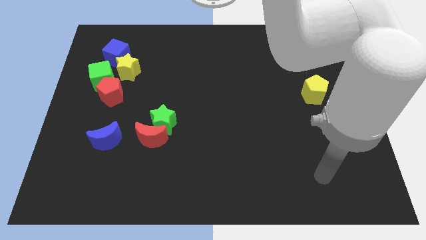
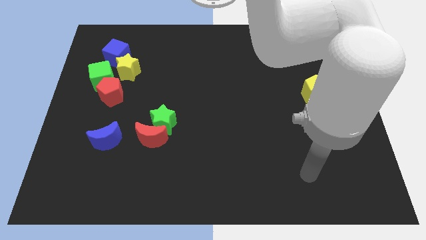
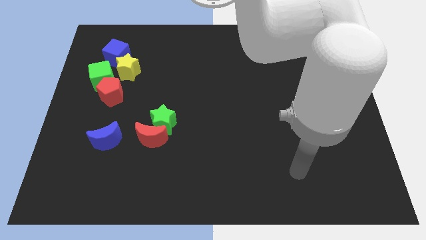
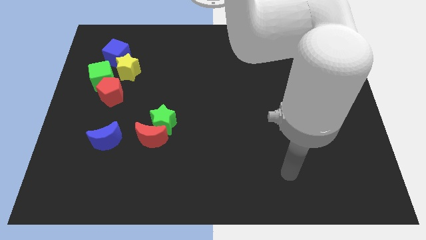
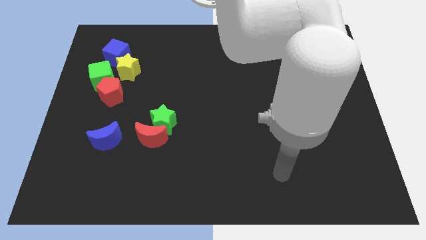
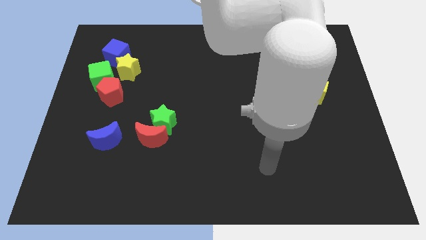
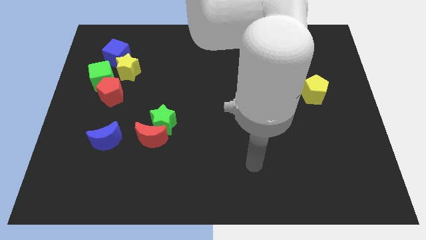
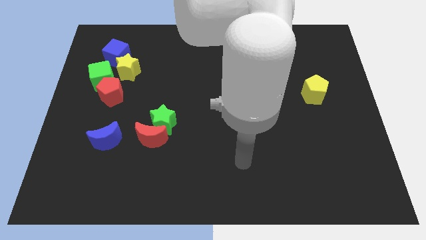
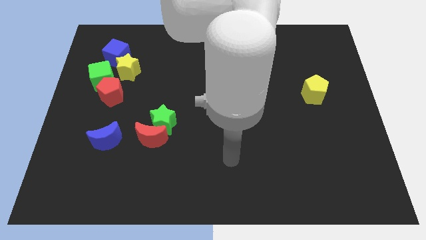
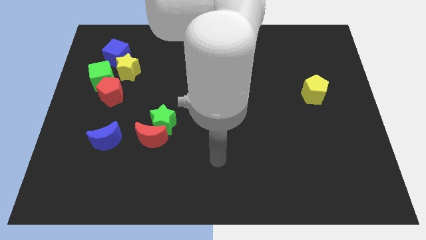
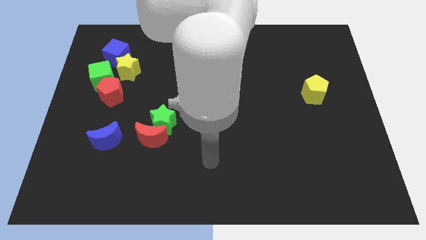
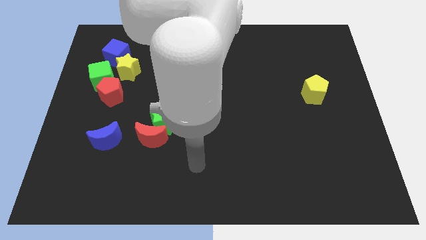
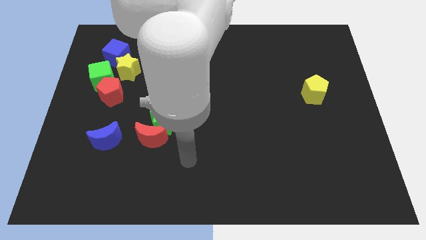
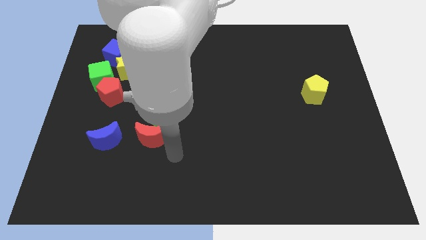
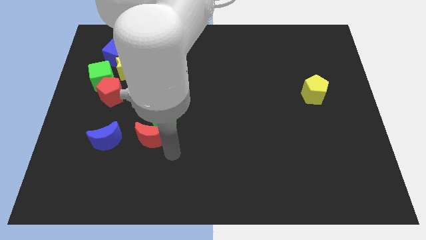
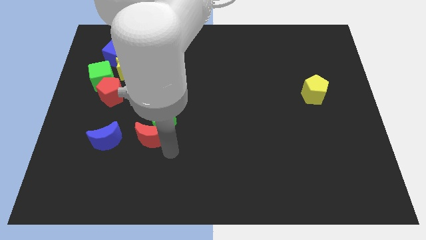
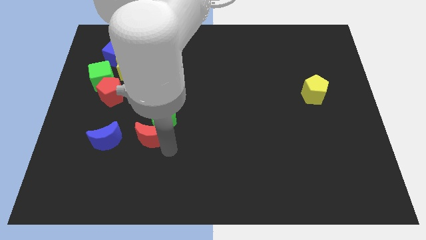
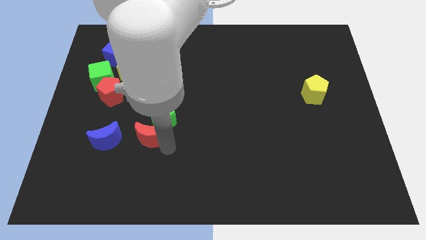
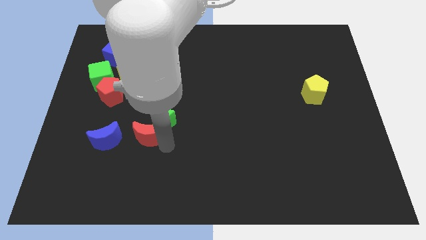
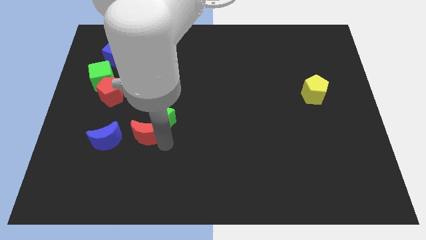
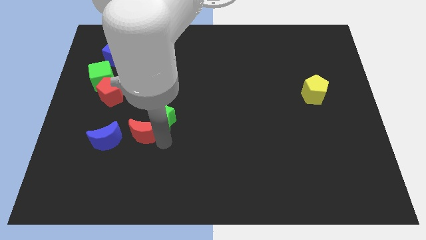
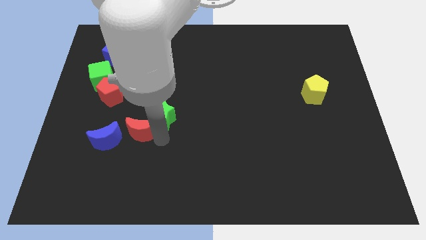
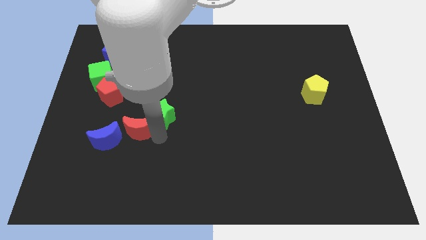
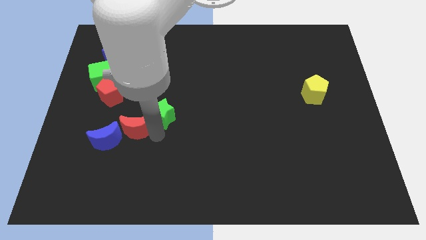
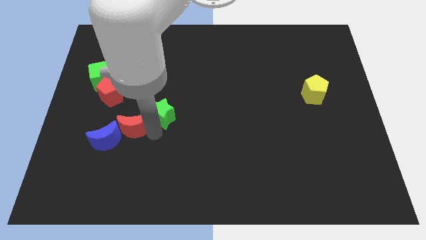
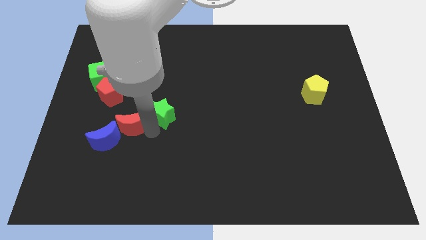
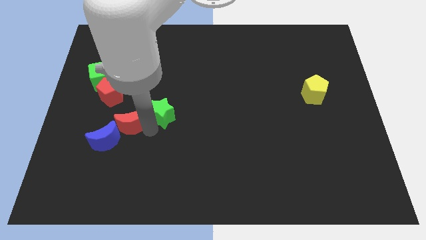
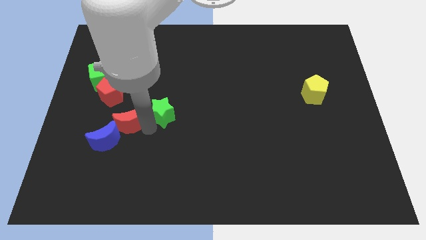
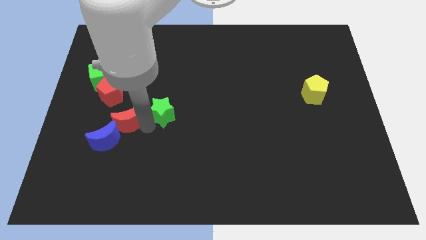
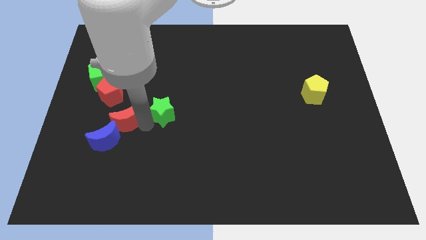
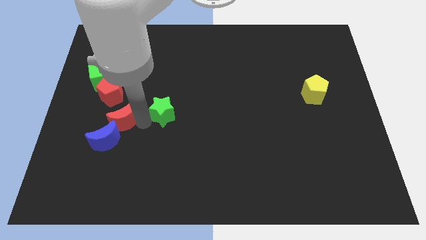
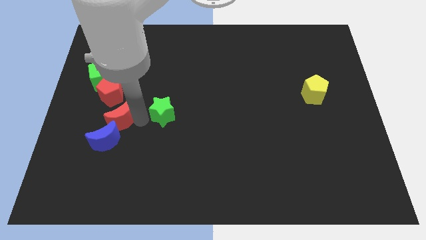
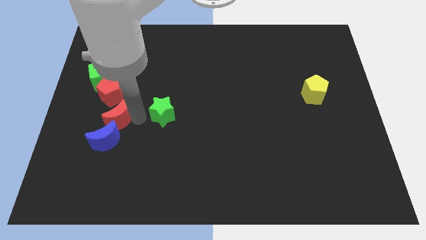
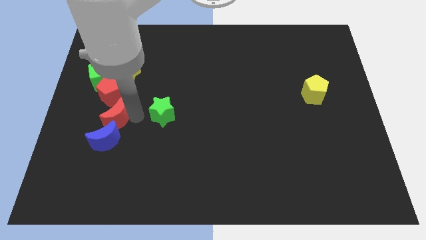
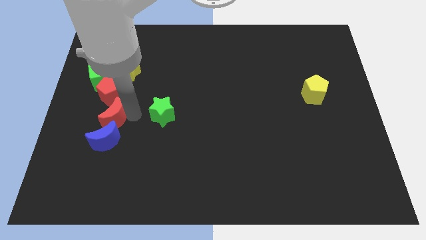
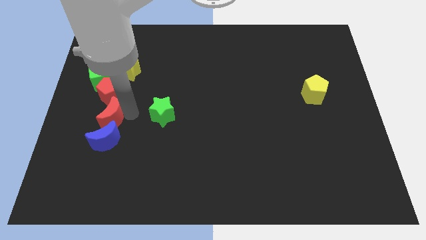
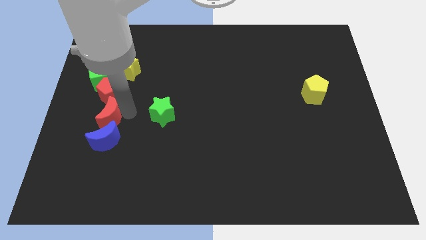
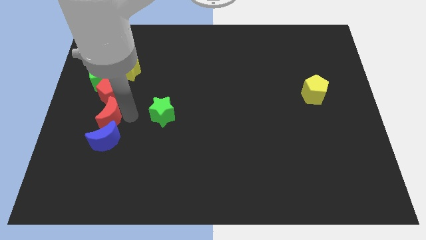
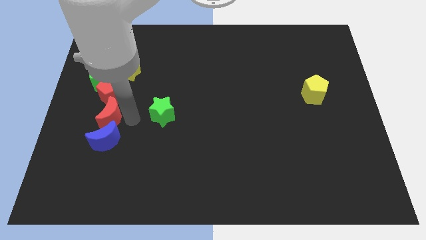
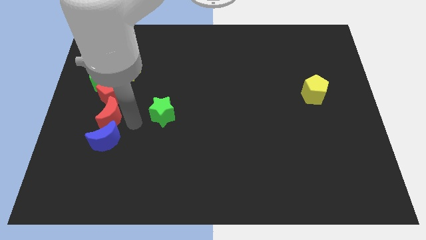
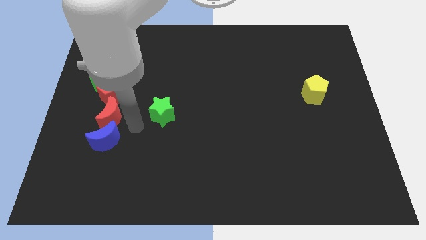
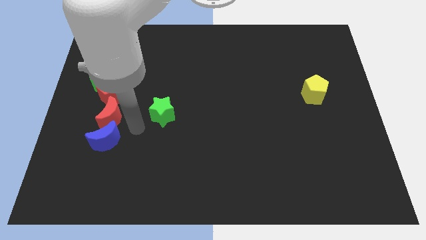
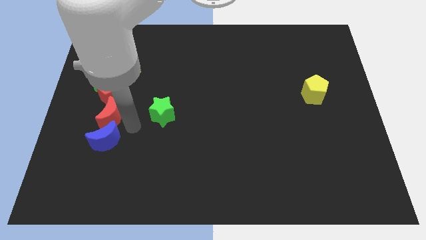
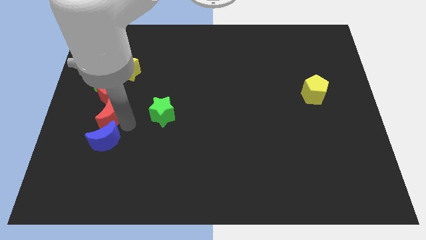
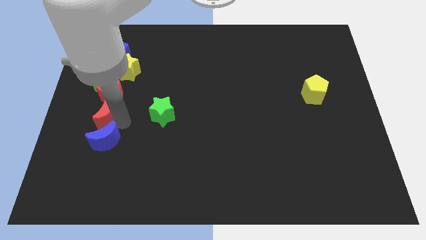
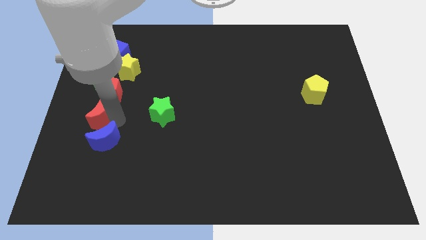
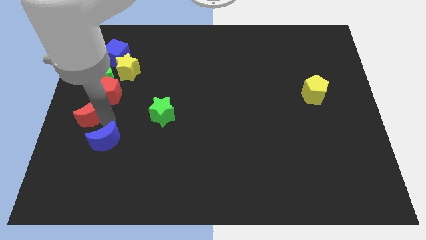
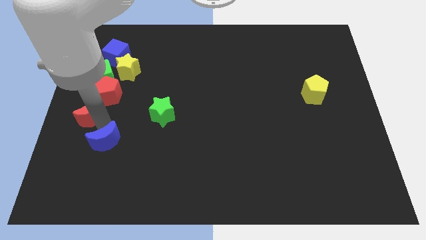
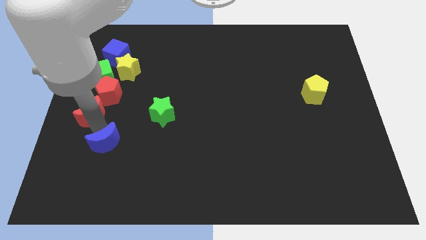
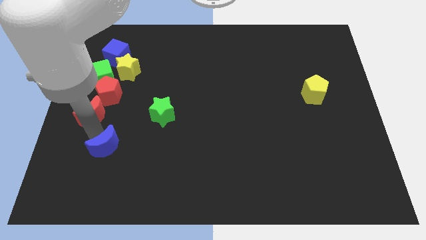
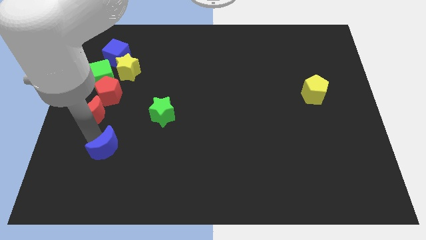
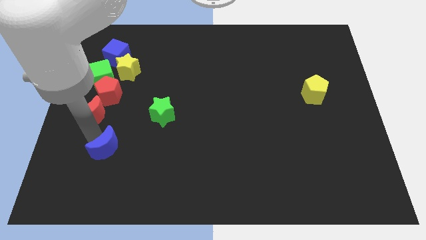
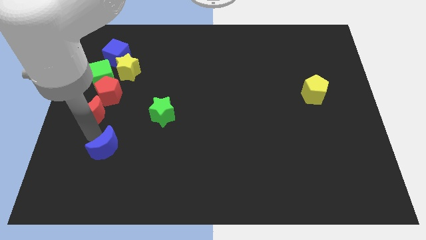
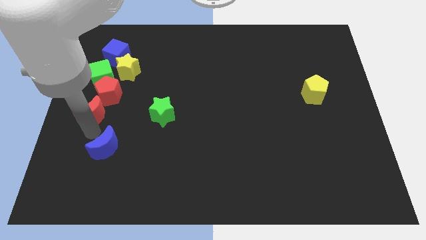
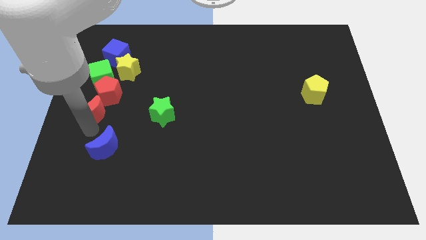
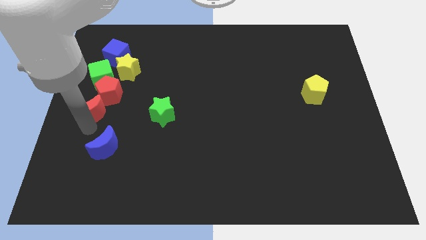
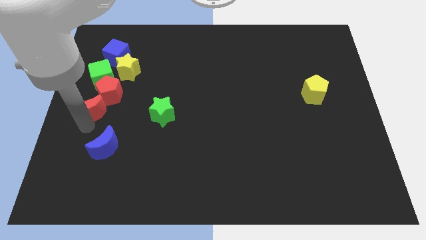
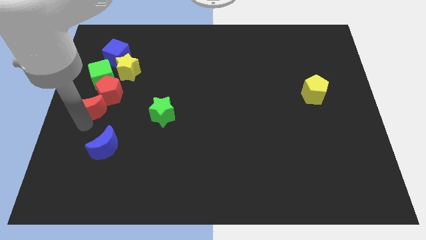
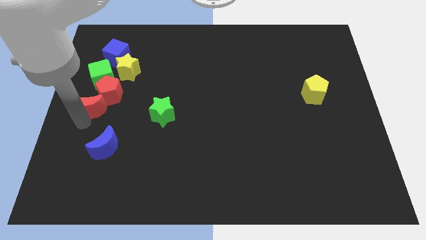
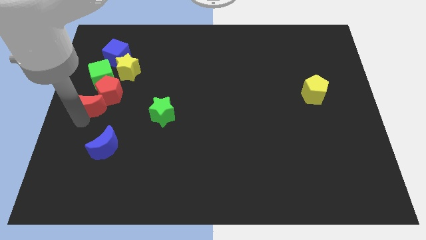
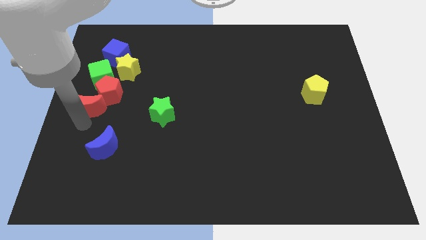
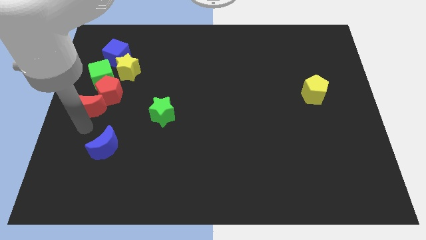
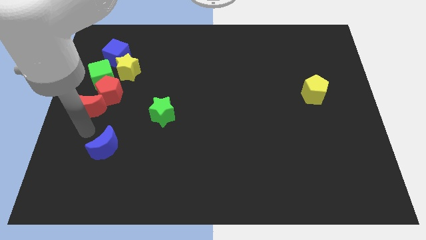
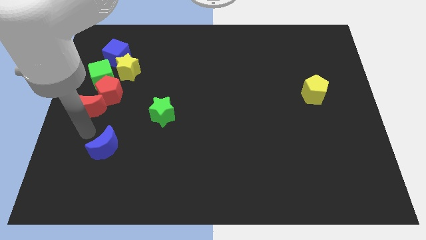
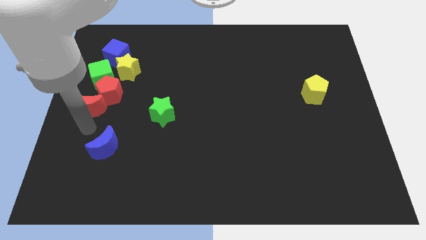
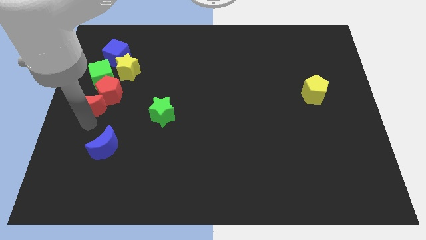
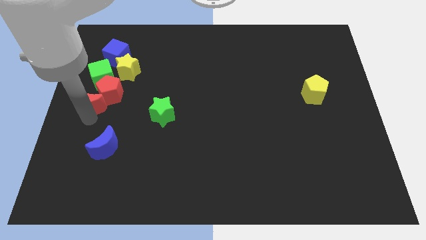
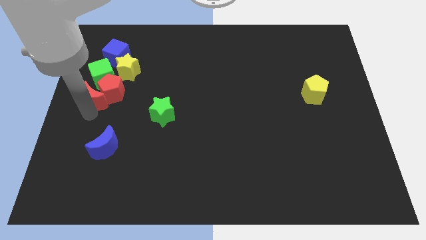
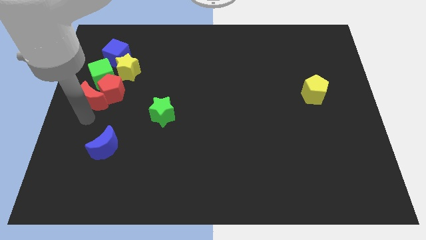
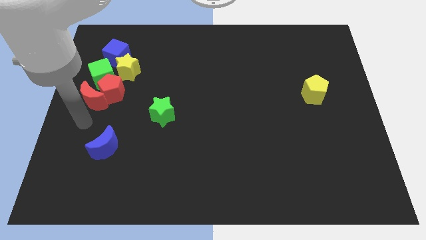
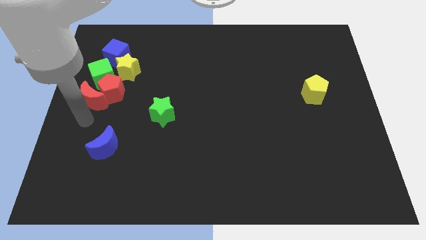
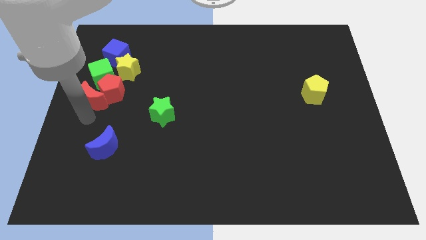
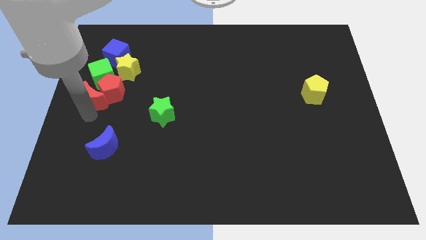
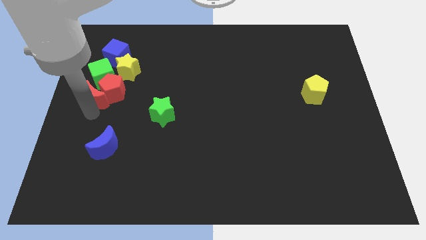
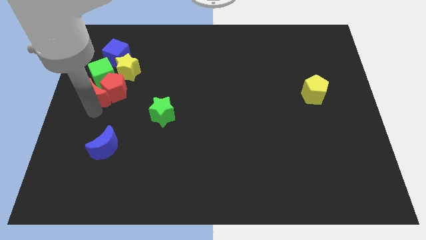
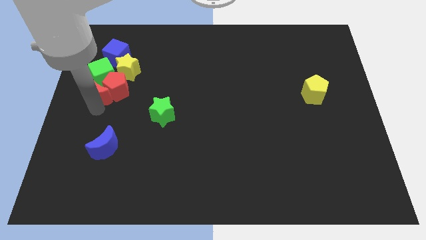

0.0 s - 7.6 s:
put the red moon to the green cube

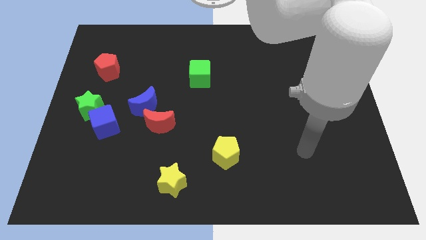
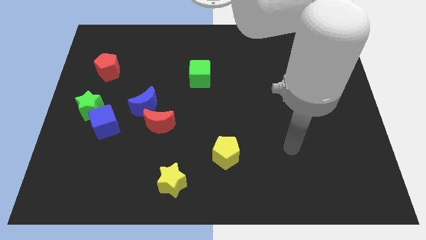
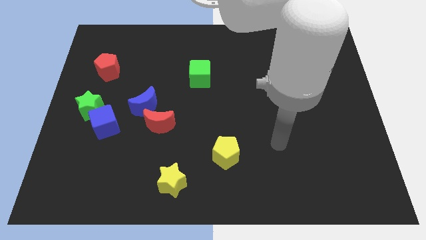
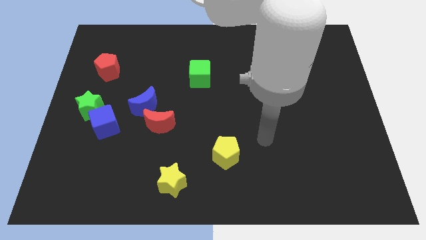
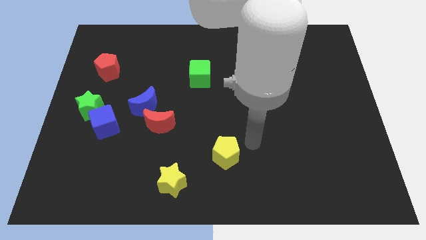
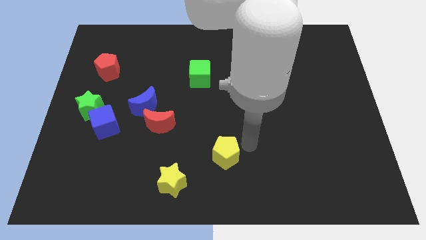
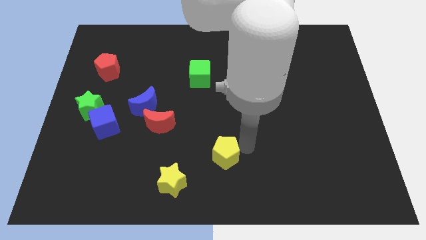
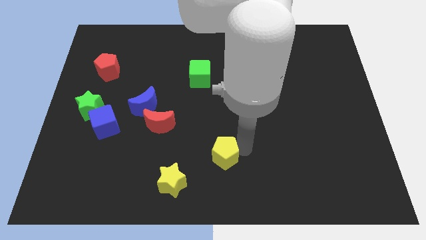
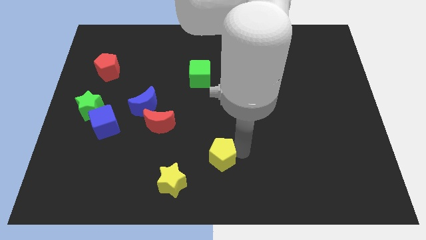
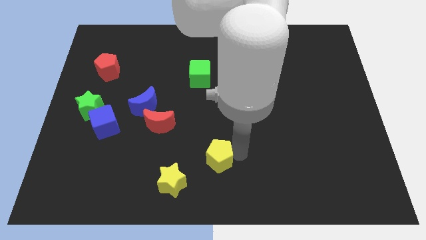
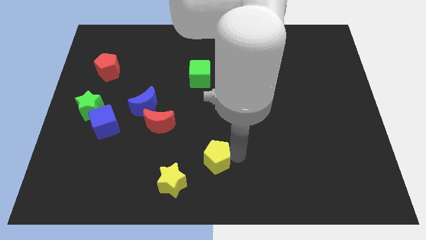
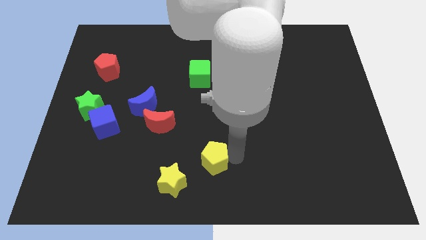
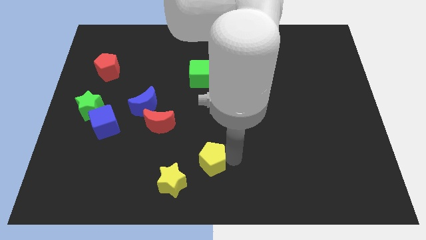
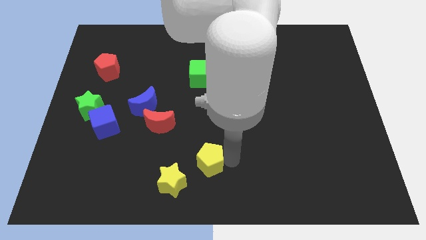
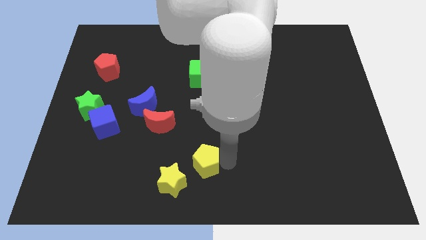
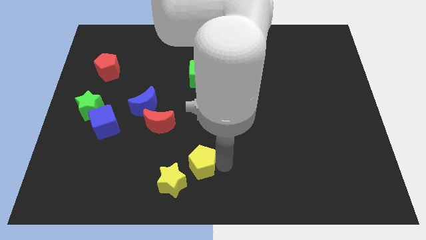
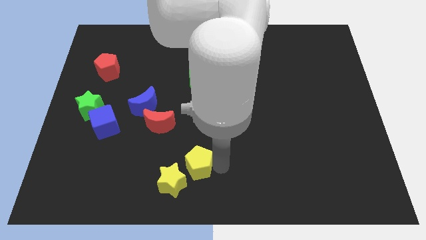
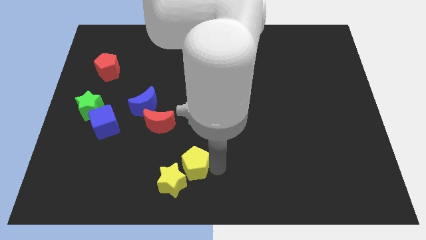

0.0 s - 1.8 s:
push the yellow pentagon to the yellow star
